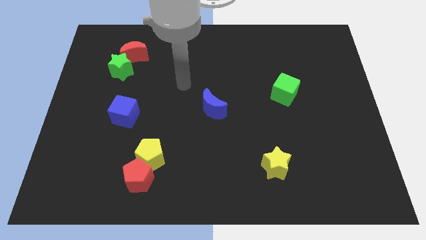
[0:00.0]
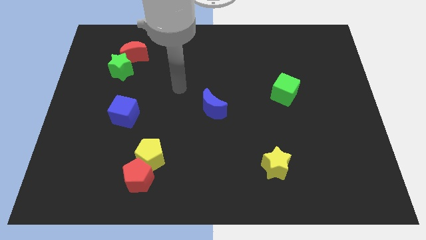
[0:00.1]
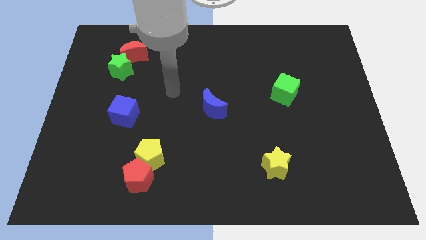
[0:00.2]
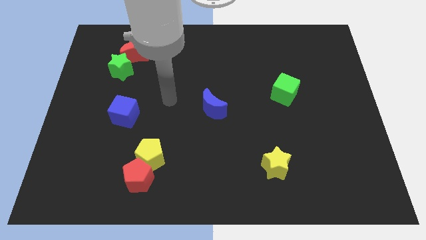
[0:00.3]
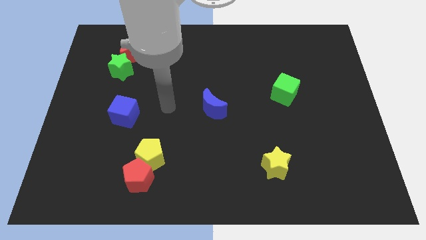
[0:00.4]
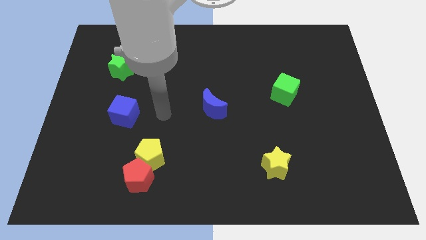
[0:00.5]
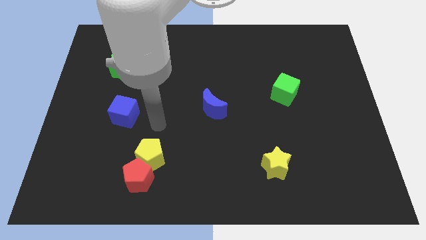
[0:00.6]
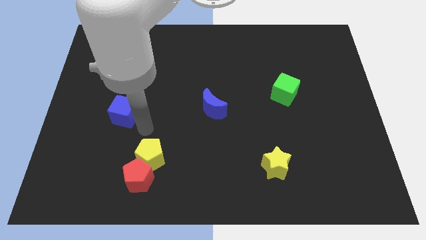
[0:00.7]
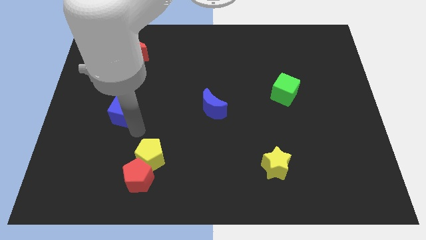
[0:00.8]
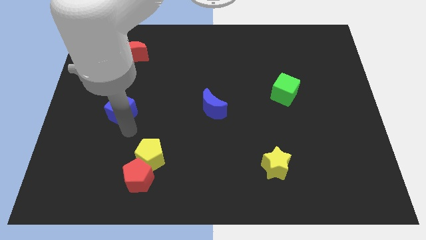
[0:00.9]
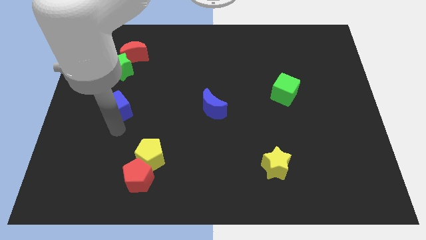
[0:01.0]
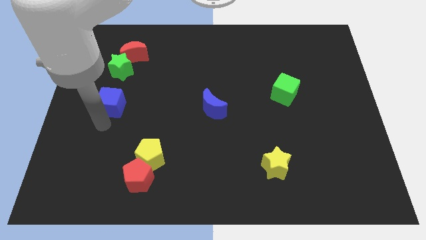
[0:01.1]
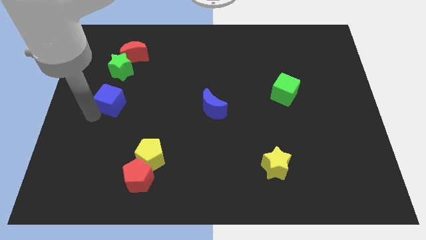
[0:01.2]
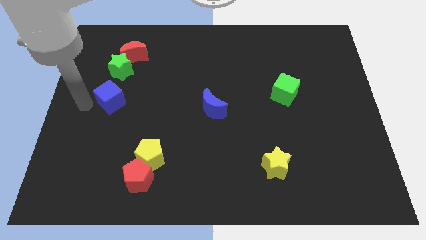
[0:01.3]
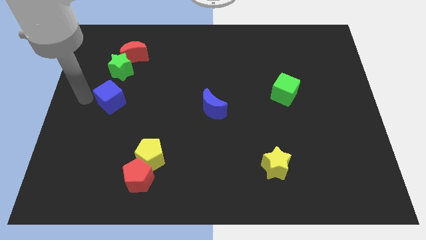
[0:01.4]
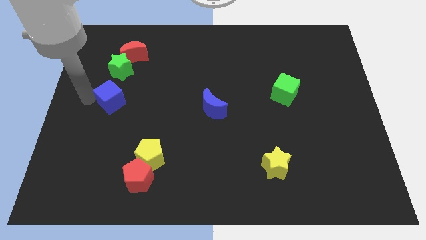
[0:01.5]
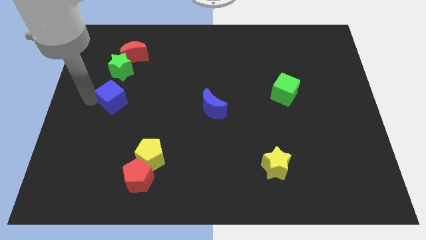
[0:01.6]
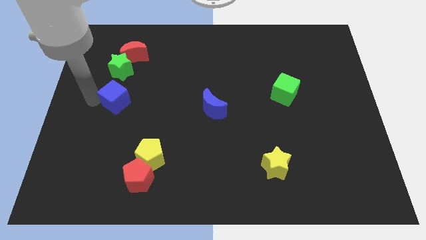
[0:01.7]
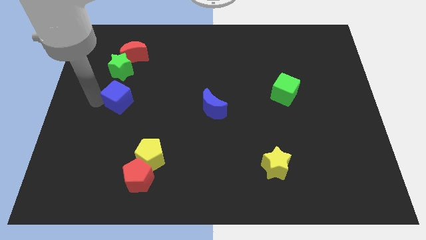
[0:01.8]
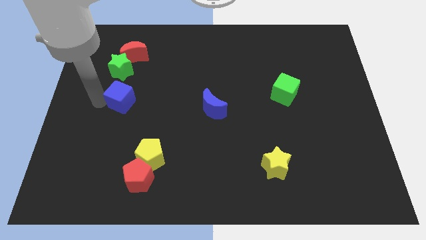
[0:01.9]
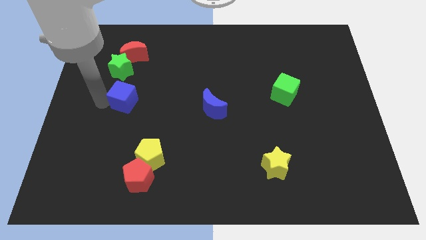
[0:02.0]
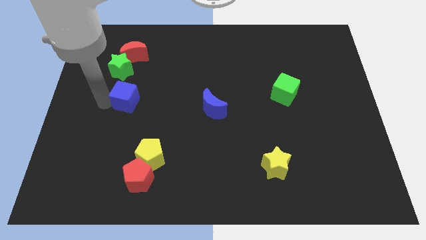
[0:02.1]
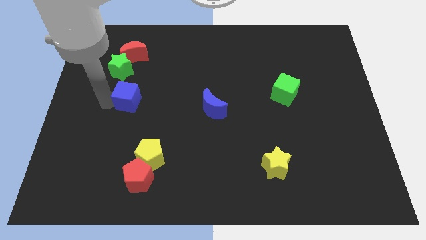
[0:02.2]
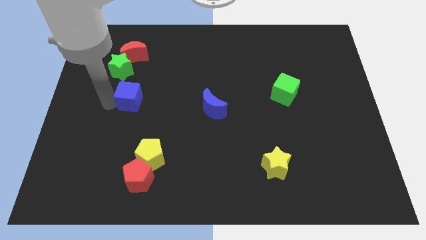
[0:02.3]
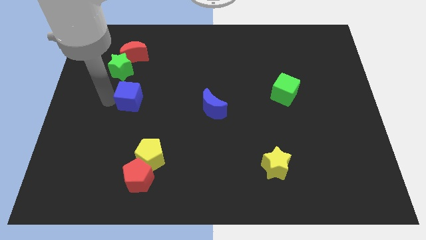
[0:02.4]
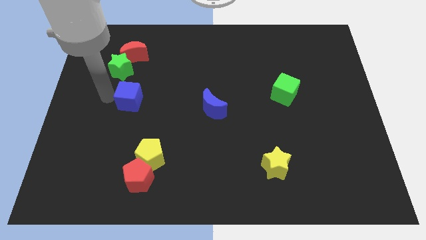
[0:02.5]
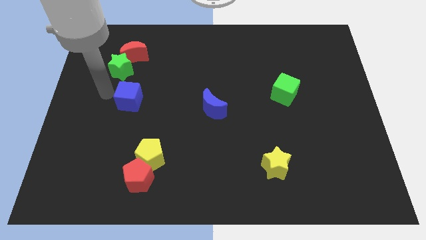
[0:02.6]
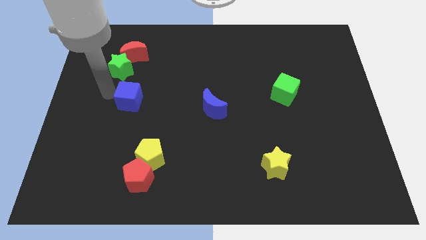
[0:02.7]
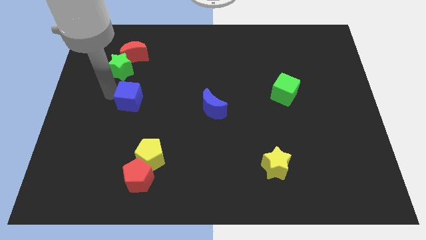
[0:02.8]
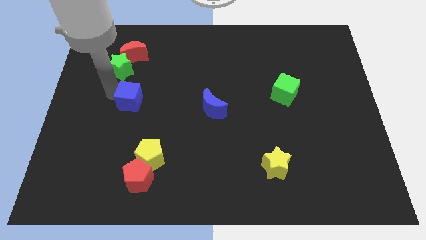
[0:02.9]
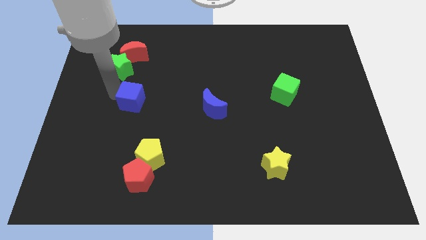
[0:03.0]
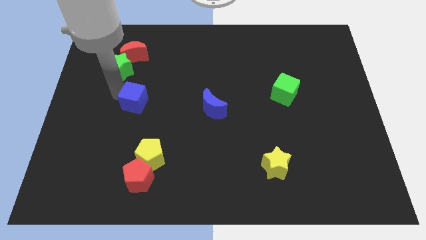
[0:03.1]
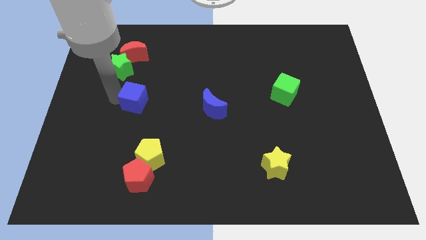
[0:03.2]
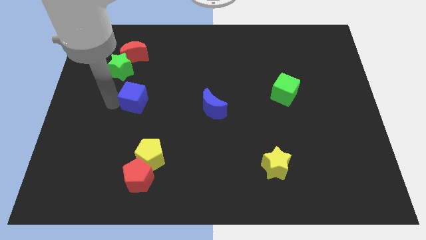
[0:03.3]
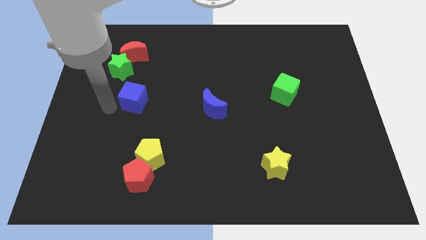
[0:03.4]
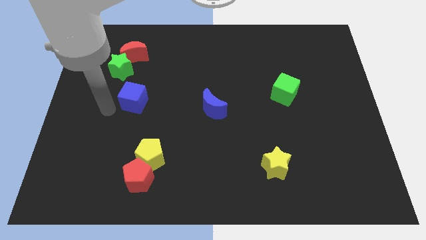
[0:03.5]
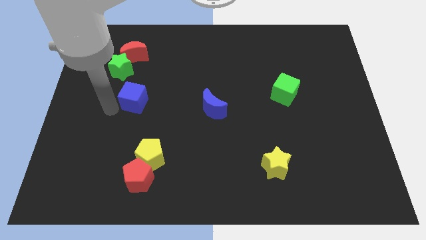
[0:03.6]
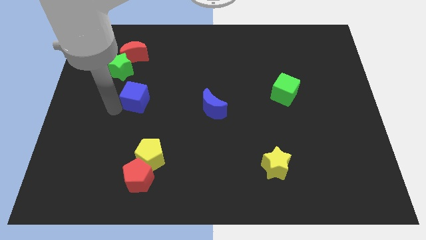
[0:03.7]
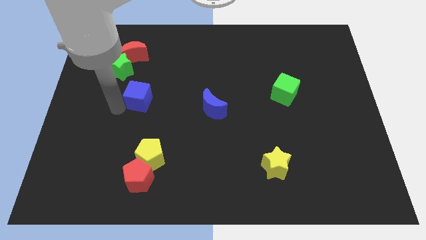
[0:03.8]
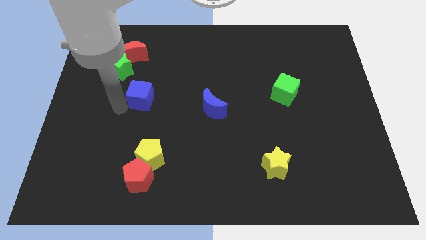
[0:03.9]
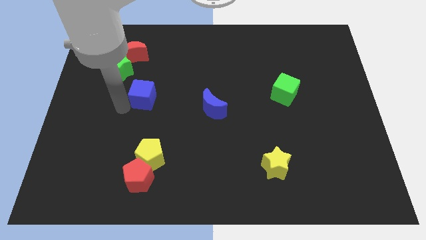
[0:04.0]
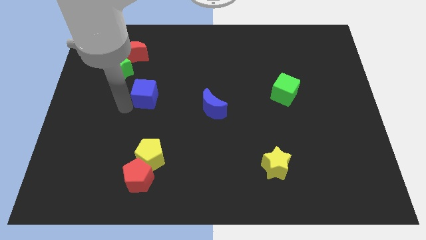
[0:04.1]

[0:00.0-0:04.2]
slightly slide the blue cube up and then right

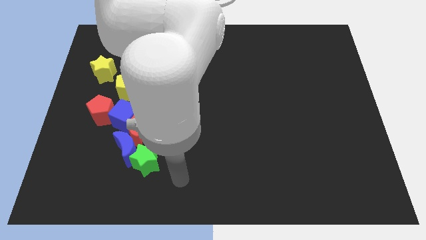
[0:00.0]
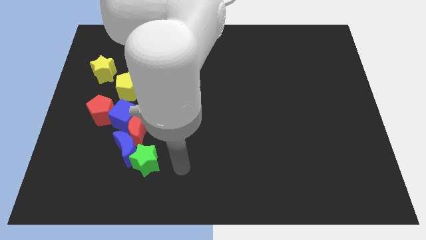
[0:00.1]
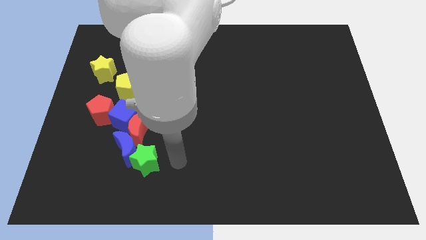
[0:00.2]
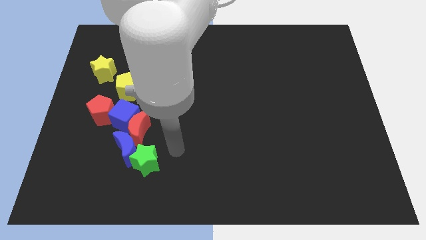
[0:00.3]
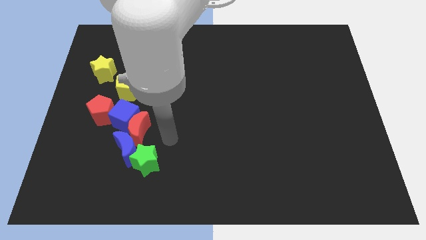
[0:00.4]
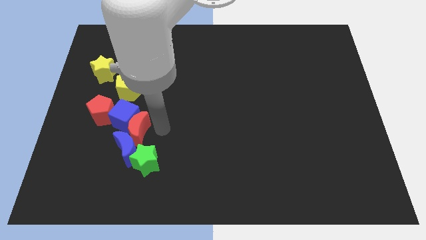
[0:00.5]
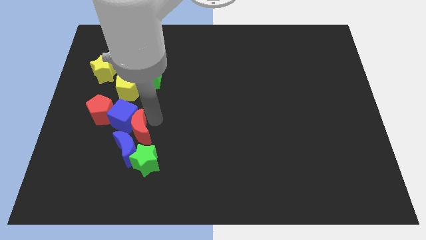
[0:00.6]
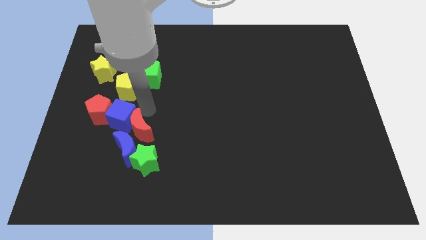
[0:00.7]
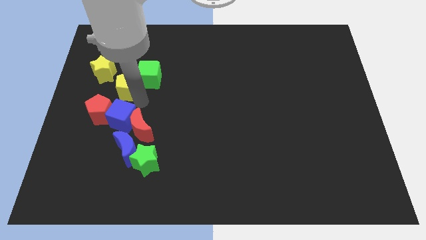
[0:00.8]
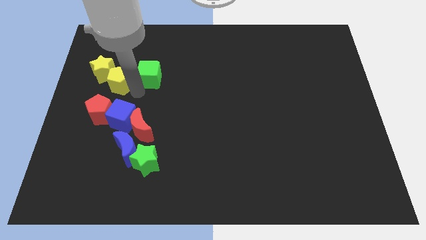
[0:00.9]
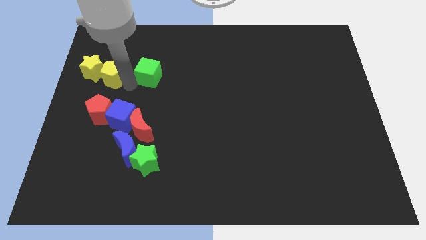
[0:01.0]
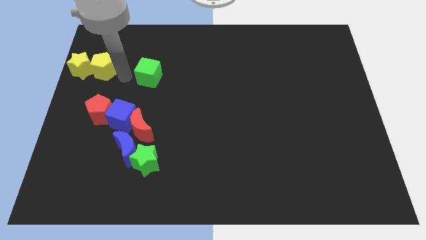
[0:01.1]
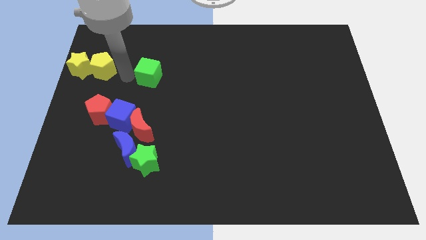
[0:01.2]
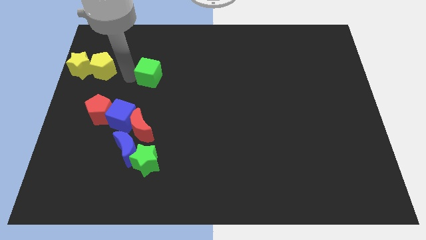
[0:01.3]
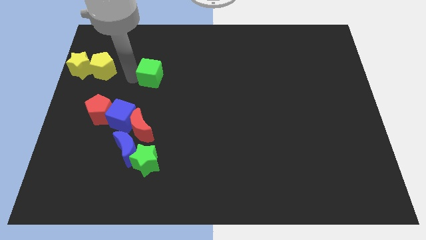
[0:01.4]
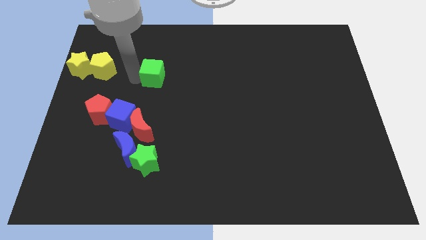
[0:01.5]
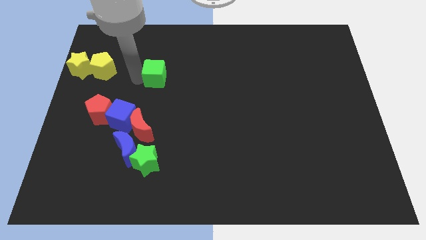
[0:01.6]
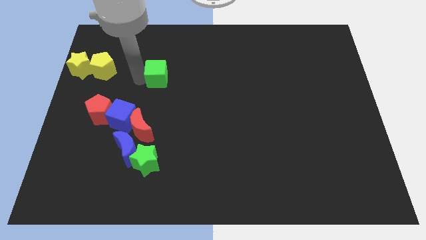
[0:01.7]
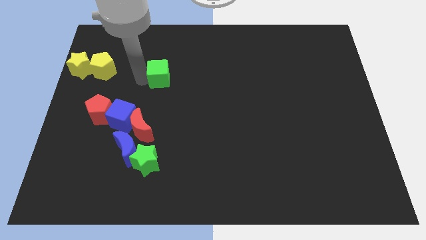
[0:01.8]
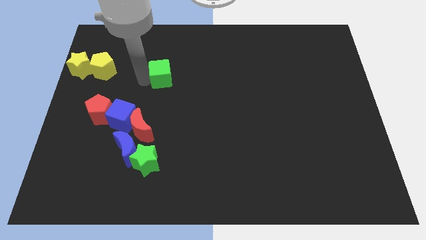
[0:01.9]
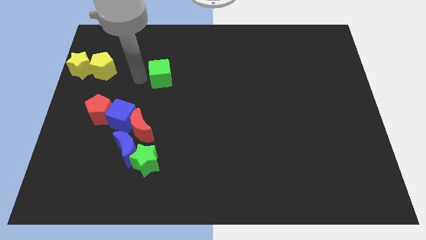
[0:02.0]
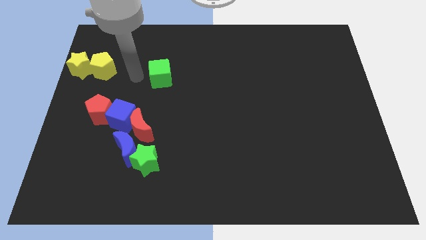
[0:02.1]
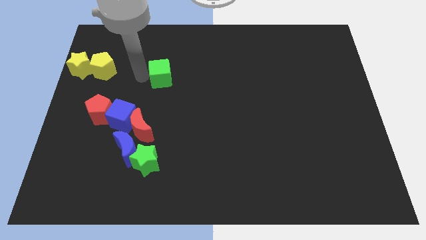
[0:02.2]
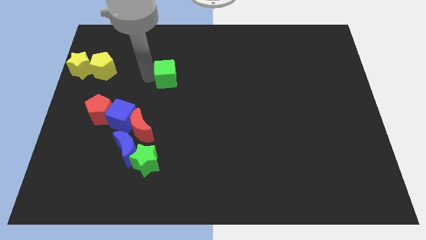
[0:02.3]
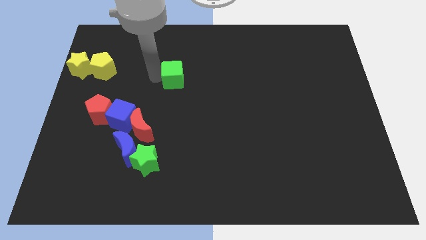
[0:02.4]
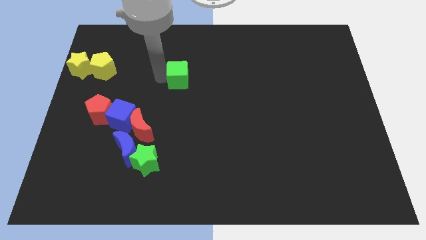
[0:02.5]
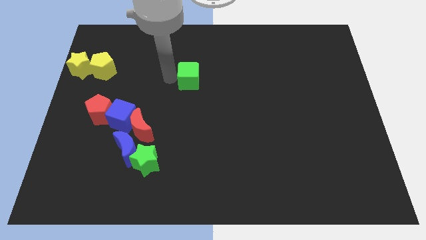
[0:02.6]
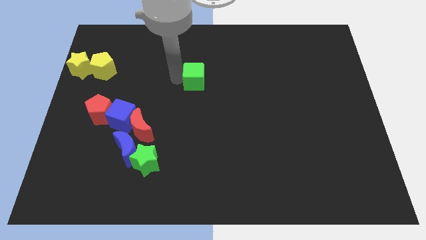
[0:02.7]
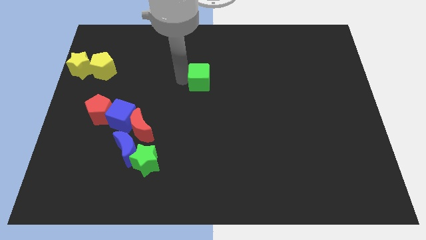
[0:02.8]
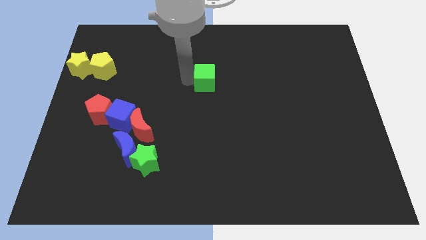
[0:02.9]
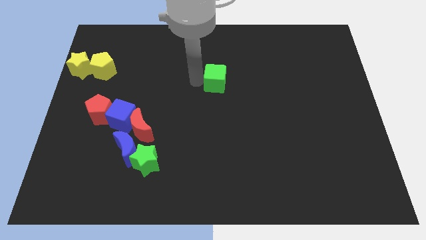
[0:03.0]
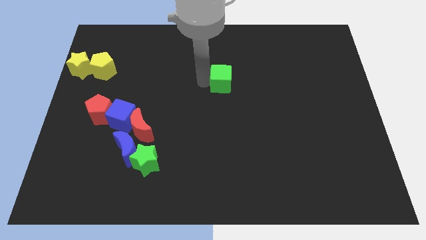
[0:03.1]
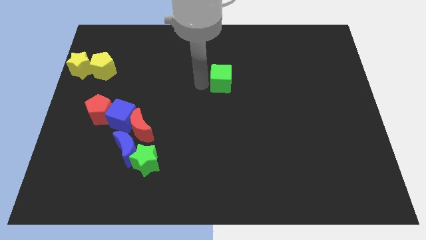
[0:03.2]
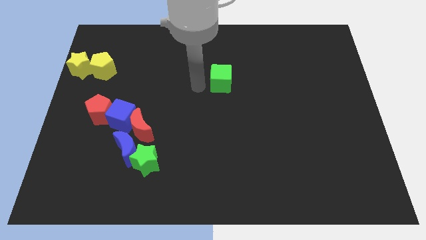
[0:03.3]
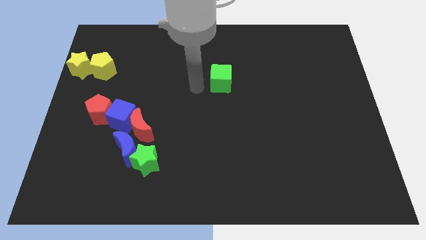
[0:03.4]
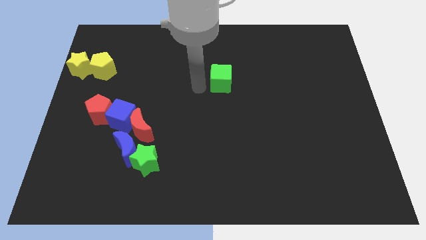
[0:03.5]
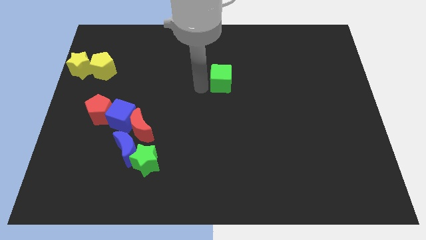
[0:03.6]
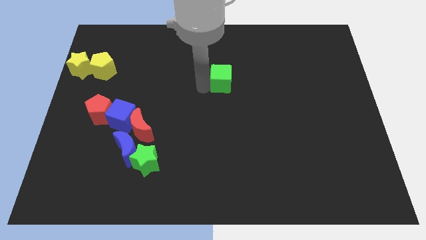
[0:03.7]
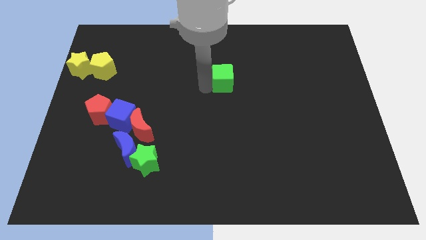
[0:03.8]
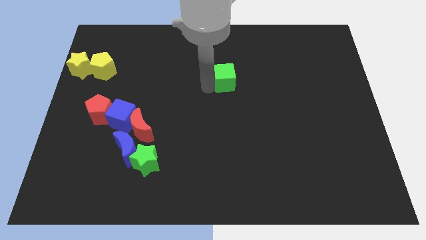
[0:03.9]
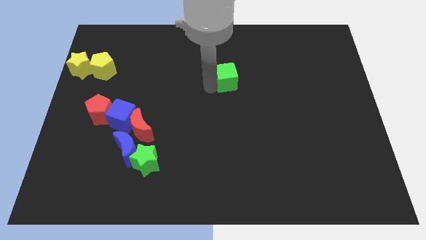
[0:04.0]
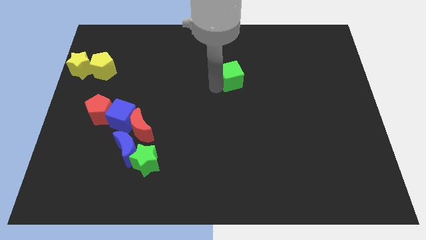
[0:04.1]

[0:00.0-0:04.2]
move the green cube to the right

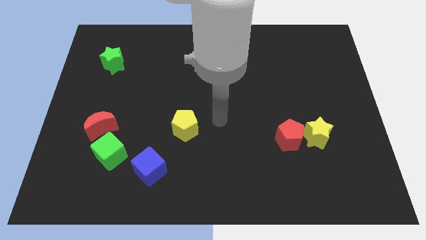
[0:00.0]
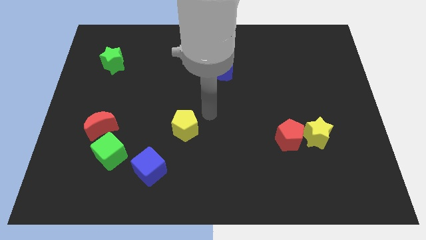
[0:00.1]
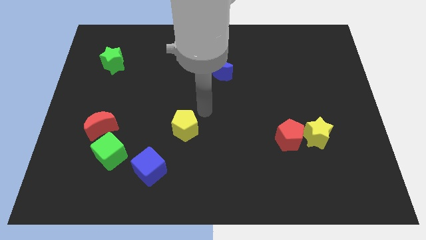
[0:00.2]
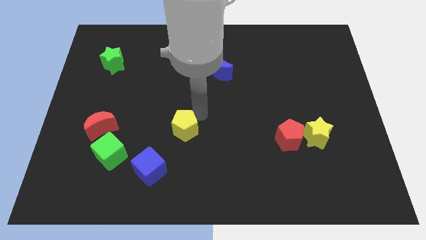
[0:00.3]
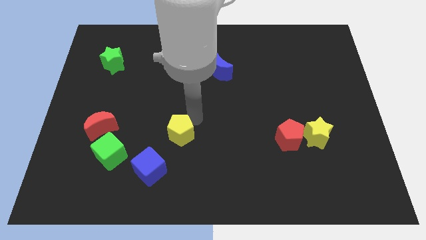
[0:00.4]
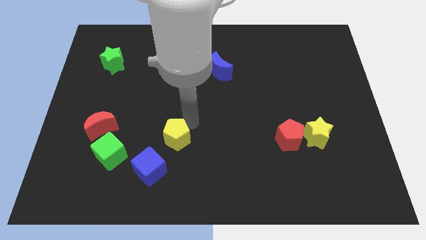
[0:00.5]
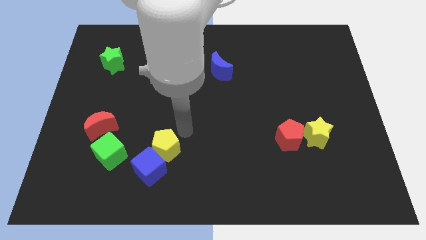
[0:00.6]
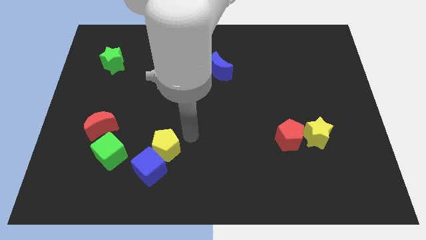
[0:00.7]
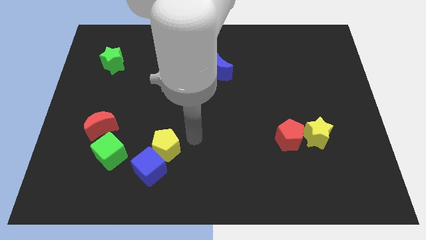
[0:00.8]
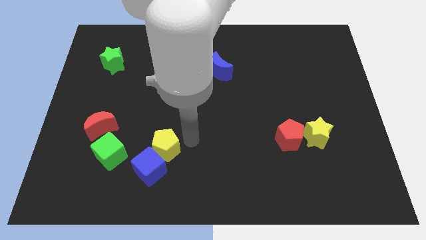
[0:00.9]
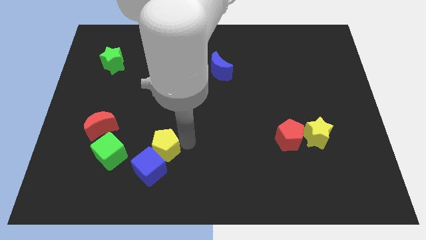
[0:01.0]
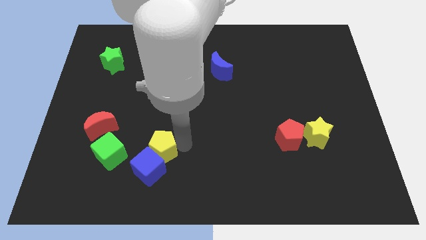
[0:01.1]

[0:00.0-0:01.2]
move the yellow pentagon a bit downwards and then to the left
